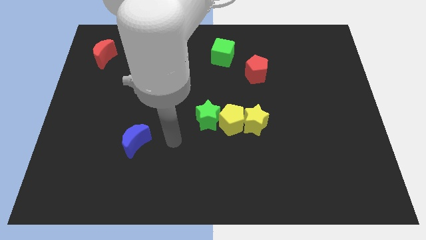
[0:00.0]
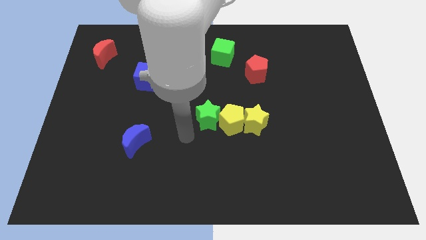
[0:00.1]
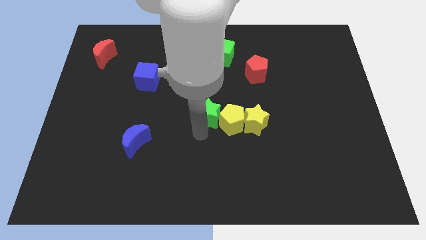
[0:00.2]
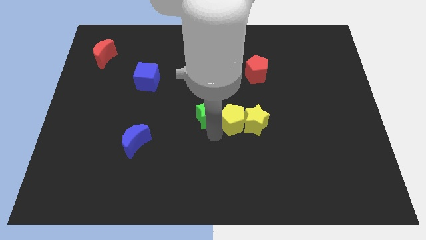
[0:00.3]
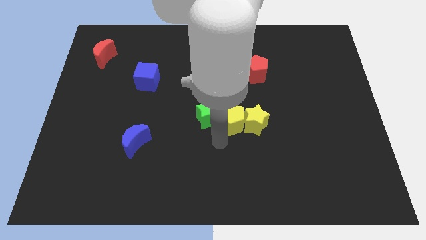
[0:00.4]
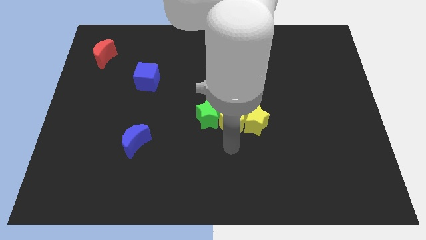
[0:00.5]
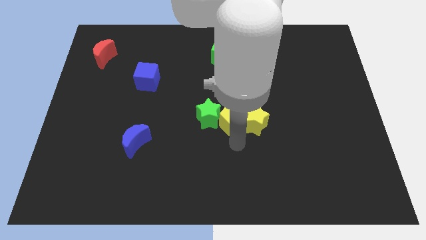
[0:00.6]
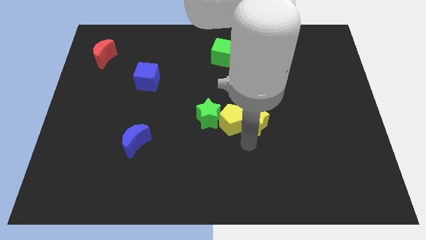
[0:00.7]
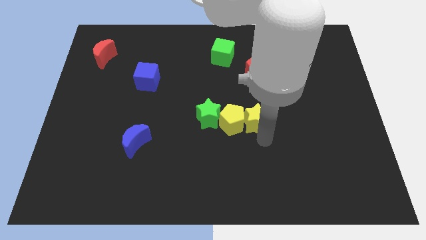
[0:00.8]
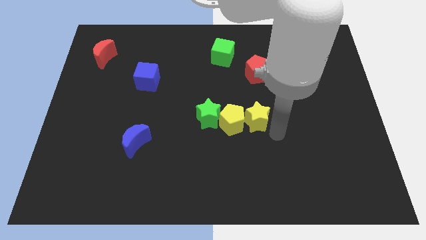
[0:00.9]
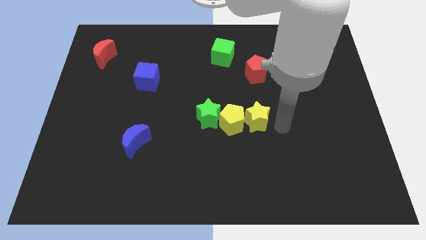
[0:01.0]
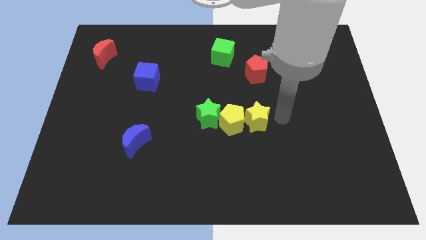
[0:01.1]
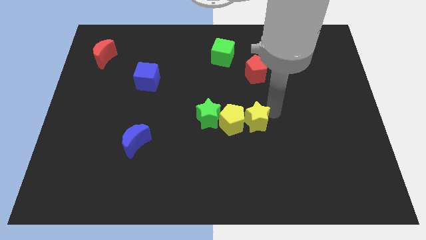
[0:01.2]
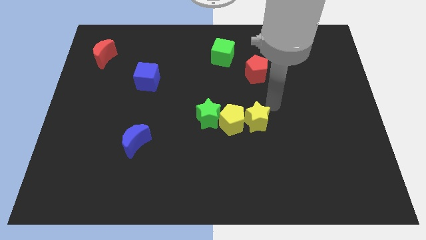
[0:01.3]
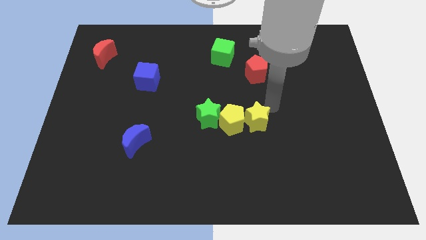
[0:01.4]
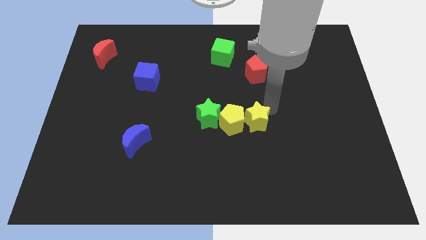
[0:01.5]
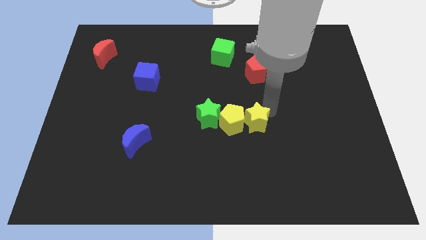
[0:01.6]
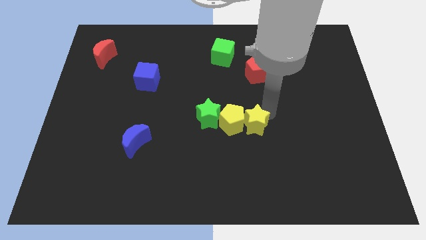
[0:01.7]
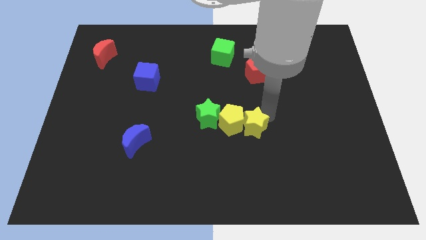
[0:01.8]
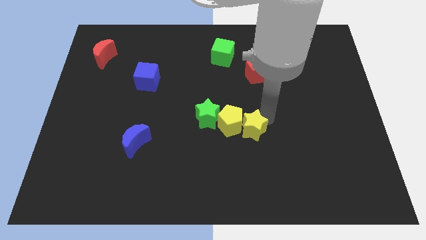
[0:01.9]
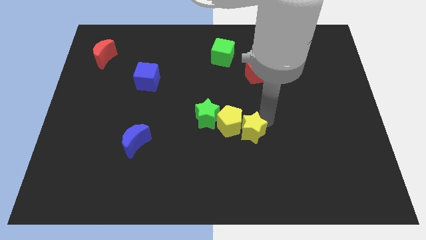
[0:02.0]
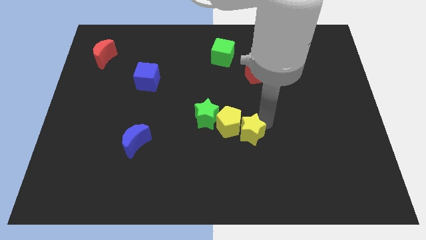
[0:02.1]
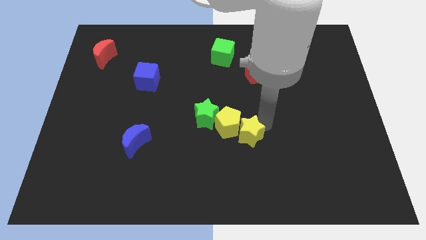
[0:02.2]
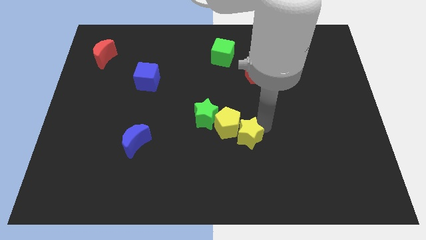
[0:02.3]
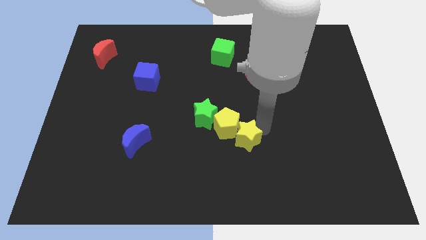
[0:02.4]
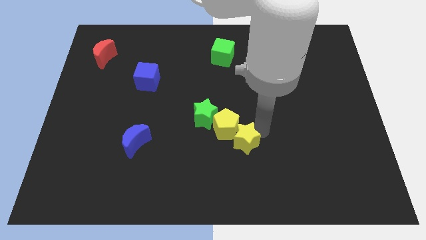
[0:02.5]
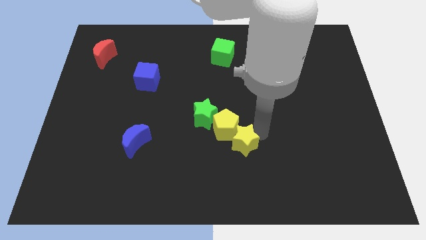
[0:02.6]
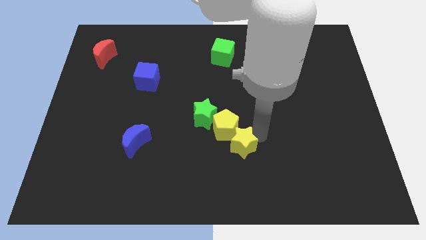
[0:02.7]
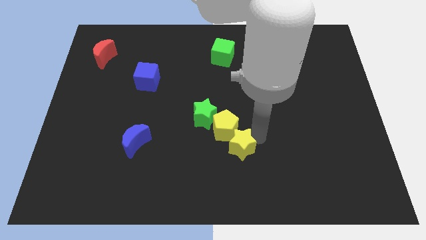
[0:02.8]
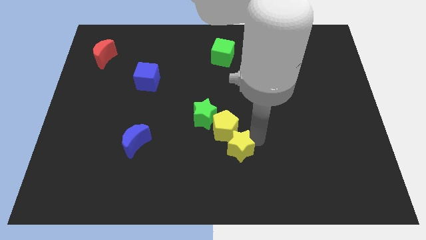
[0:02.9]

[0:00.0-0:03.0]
slightly push the yellow star down and to the left diagonally

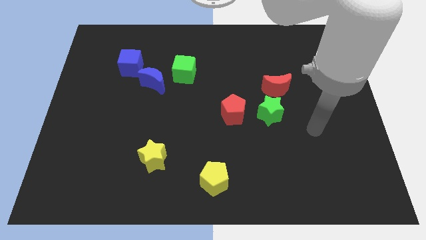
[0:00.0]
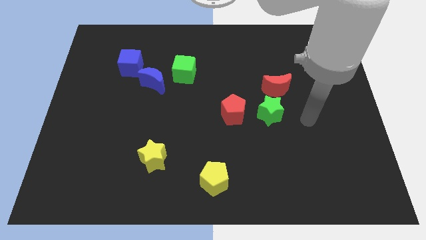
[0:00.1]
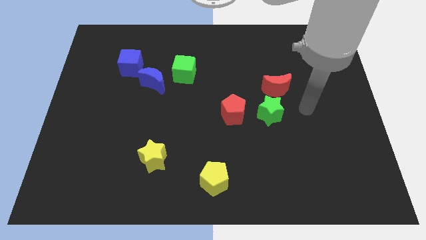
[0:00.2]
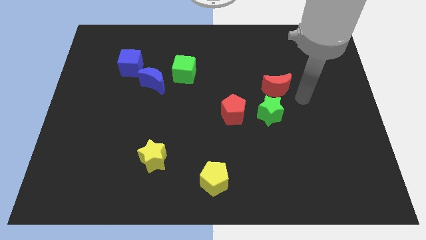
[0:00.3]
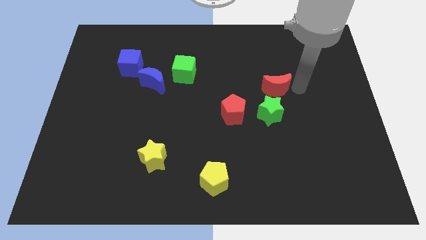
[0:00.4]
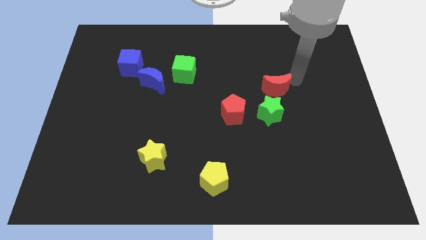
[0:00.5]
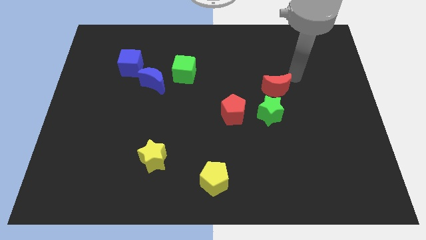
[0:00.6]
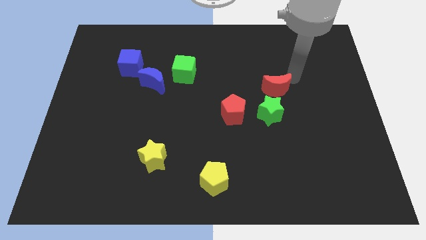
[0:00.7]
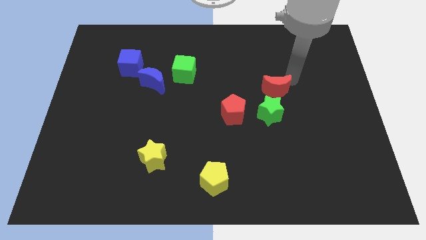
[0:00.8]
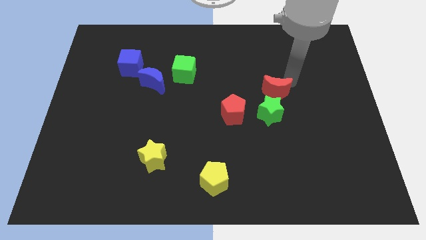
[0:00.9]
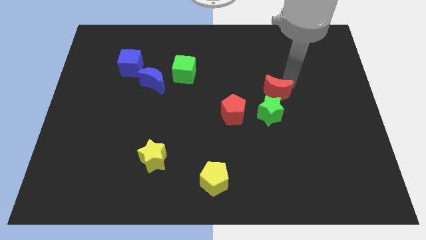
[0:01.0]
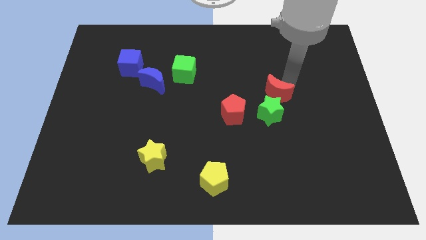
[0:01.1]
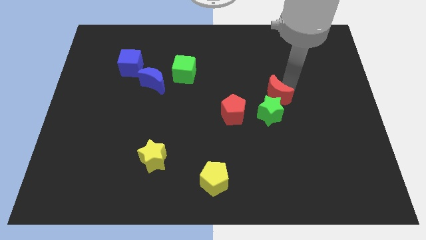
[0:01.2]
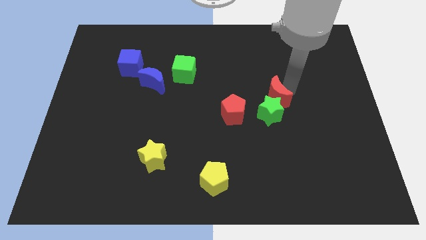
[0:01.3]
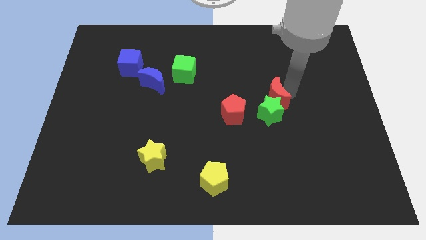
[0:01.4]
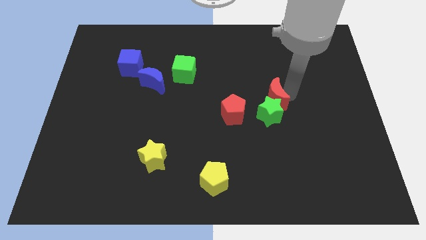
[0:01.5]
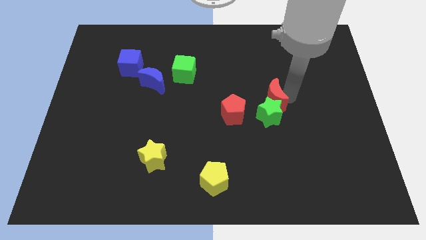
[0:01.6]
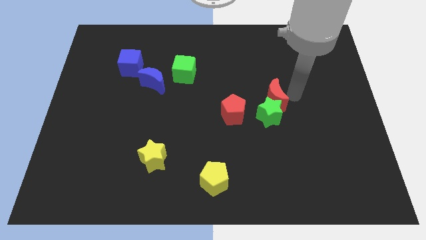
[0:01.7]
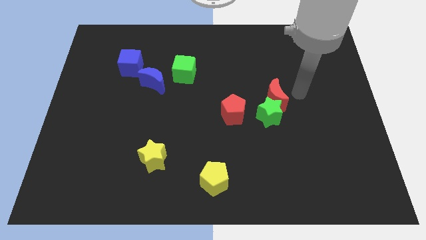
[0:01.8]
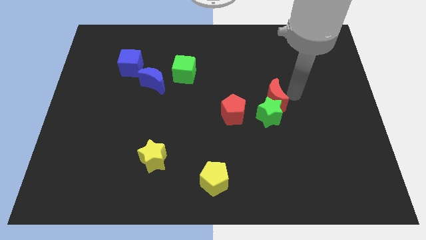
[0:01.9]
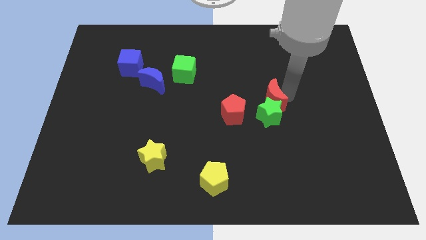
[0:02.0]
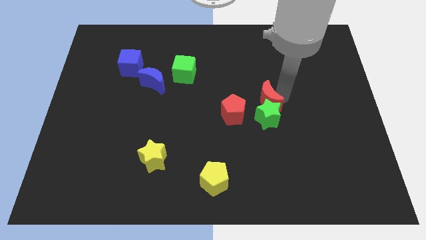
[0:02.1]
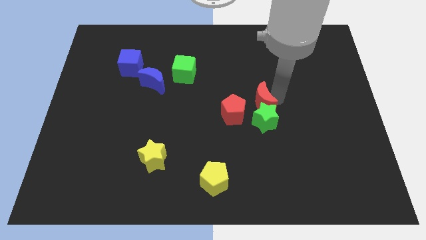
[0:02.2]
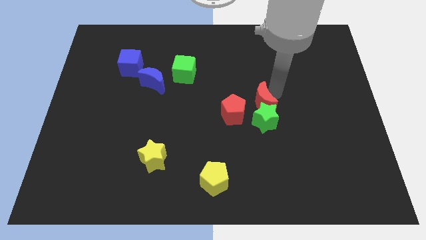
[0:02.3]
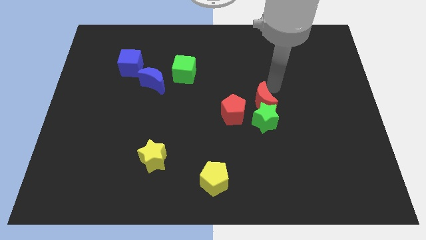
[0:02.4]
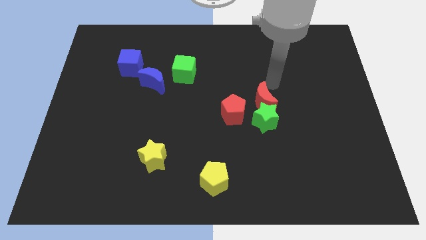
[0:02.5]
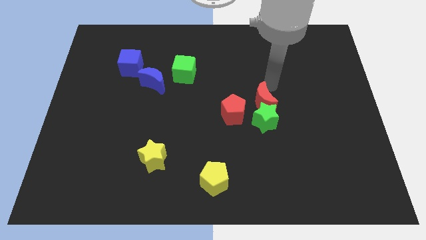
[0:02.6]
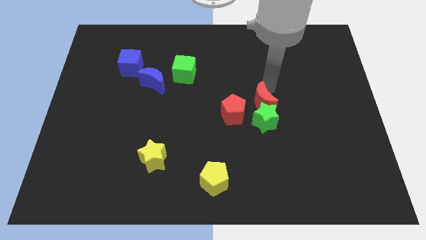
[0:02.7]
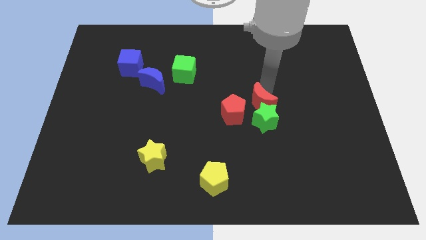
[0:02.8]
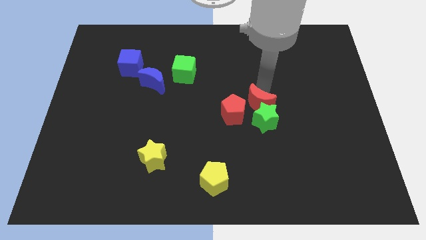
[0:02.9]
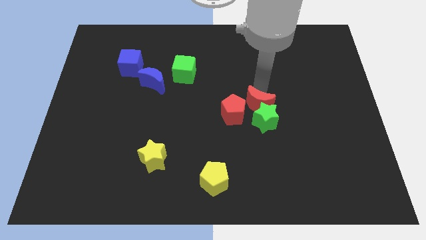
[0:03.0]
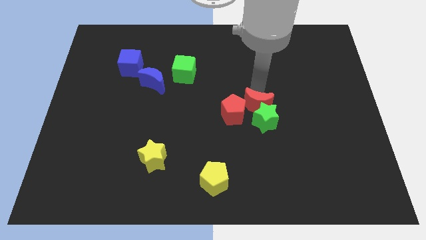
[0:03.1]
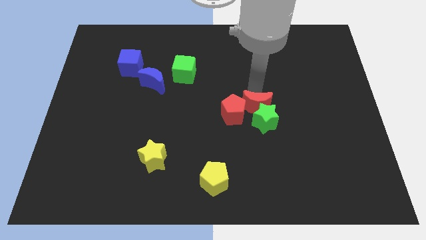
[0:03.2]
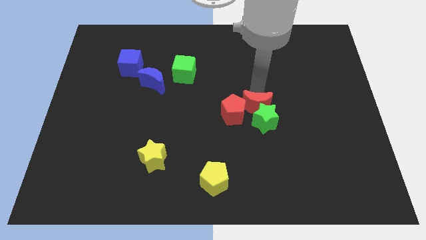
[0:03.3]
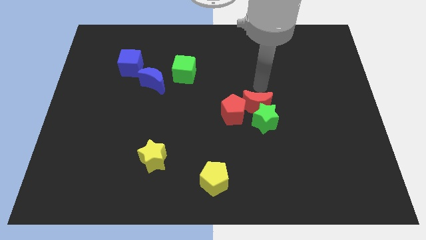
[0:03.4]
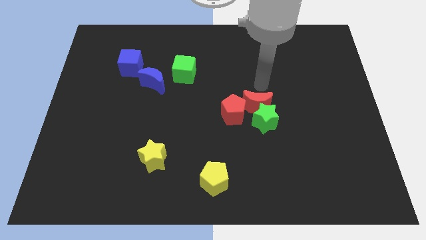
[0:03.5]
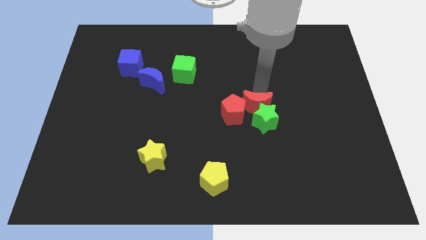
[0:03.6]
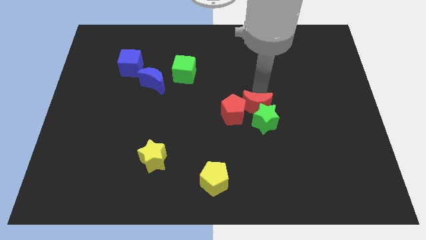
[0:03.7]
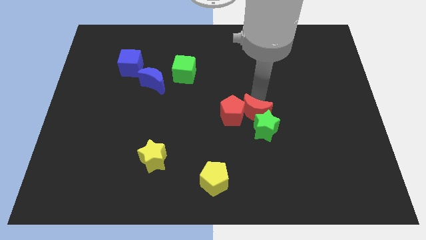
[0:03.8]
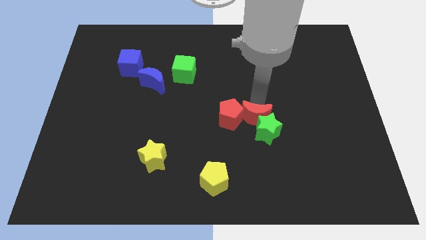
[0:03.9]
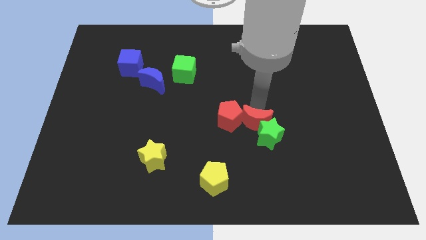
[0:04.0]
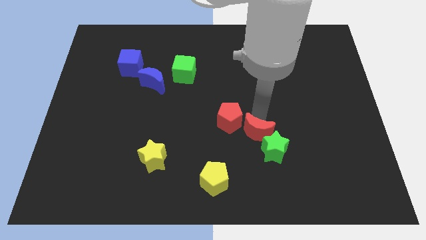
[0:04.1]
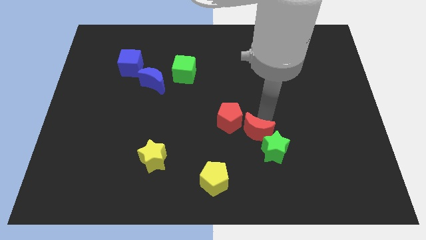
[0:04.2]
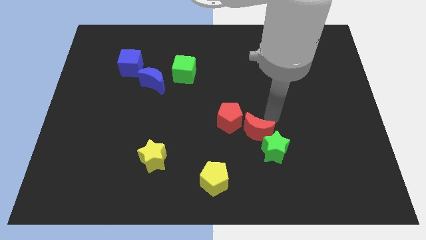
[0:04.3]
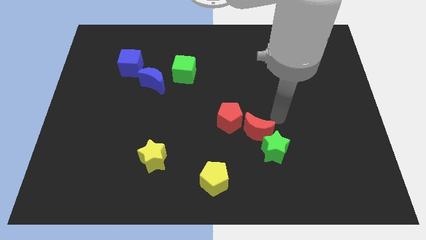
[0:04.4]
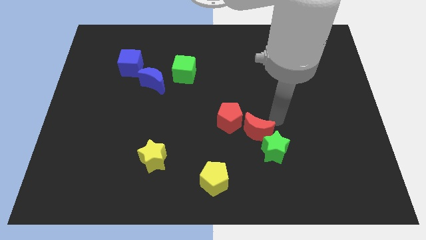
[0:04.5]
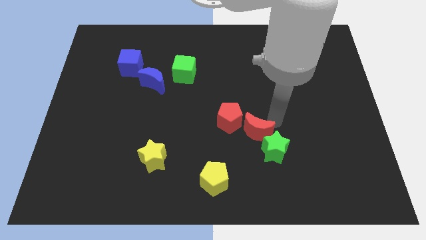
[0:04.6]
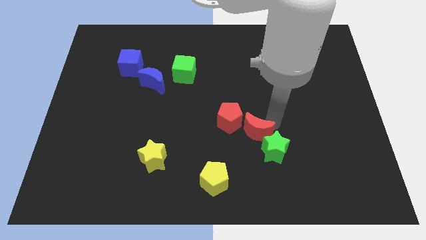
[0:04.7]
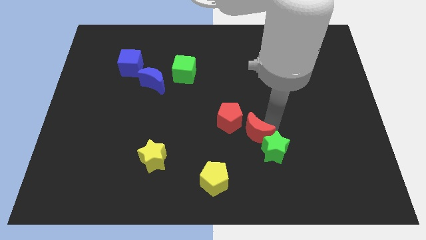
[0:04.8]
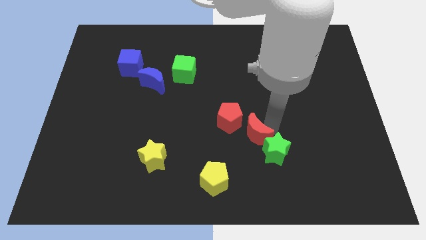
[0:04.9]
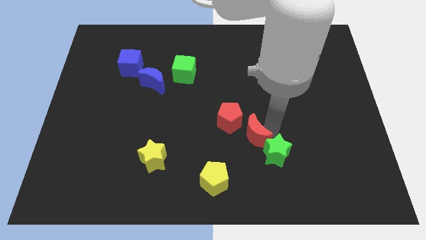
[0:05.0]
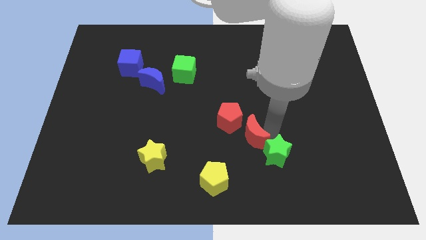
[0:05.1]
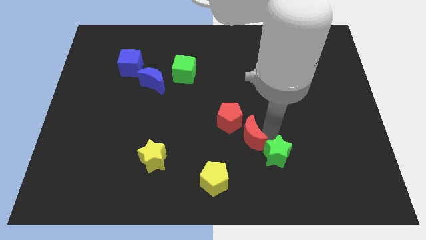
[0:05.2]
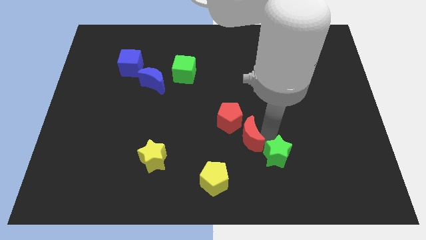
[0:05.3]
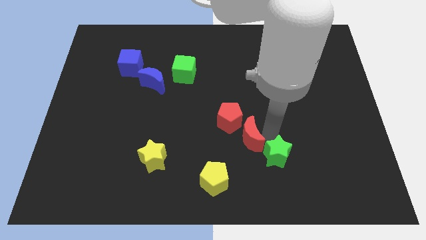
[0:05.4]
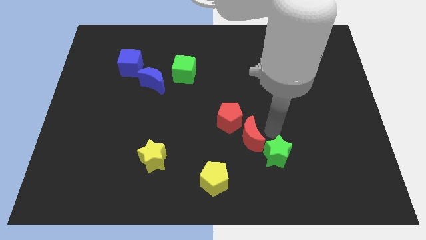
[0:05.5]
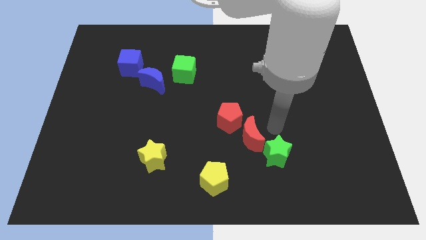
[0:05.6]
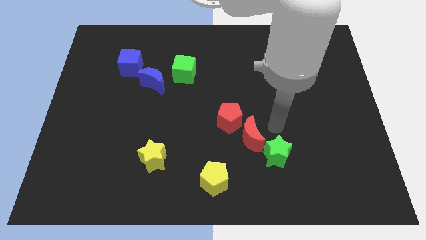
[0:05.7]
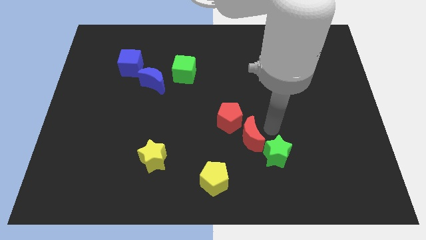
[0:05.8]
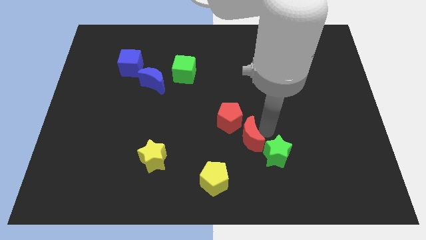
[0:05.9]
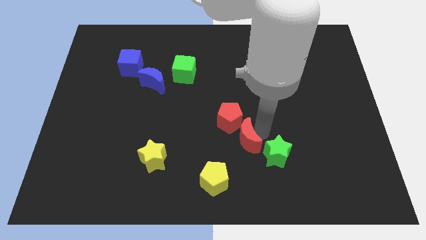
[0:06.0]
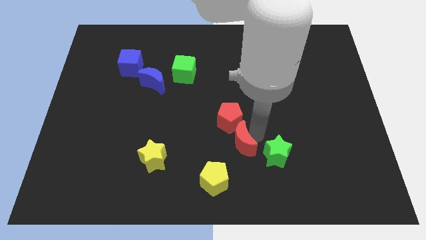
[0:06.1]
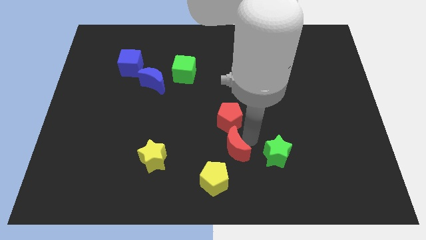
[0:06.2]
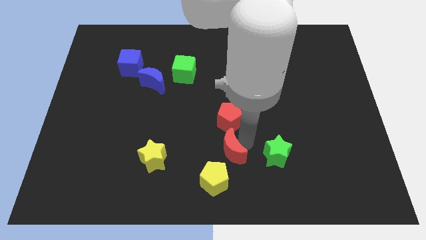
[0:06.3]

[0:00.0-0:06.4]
push the red moon downwards and then left
